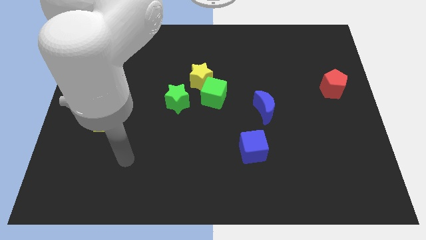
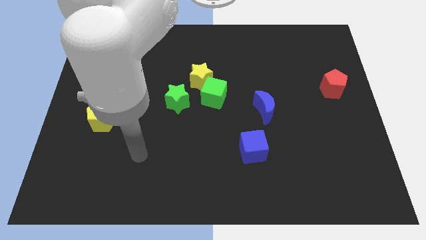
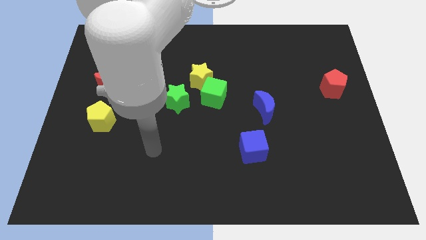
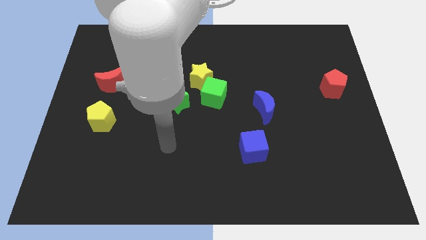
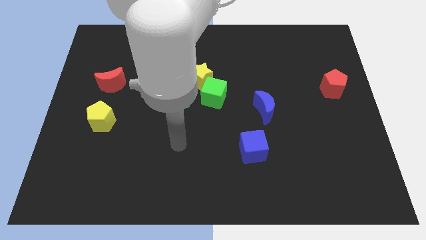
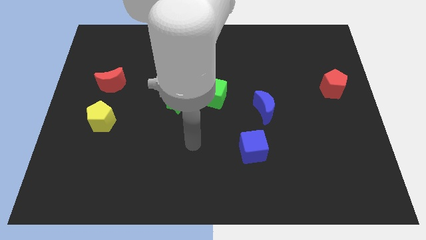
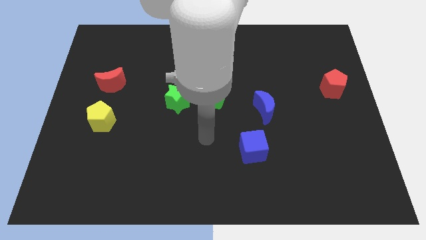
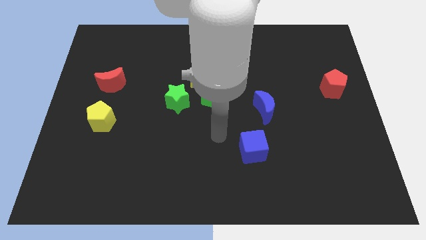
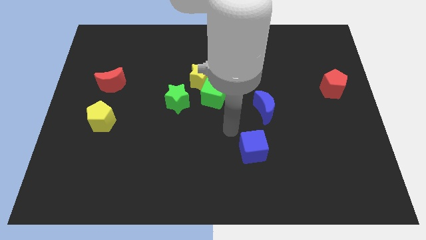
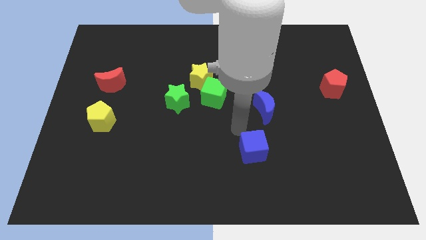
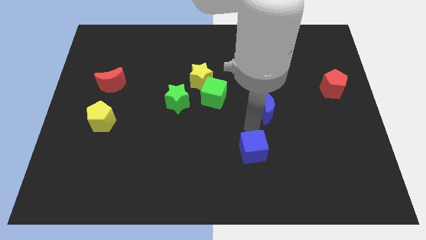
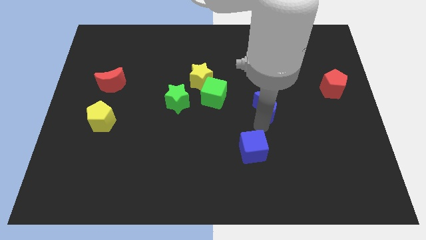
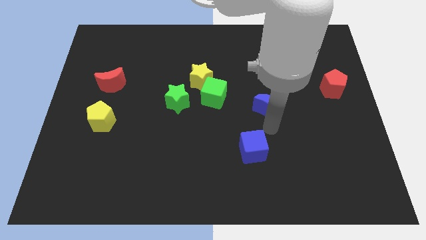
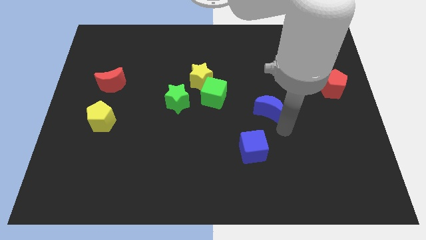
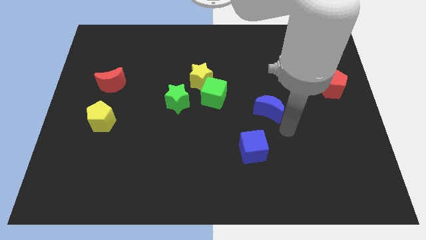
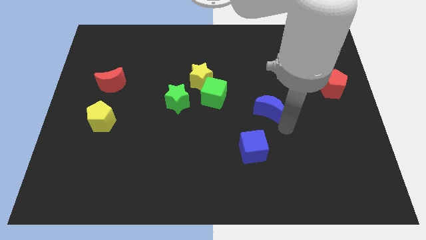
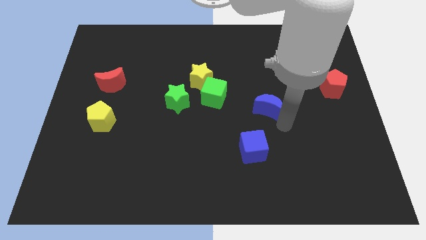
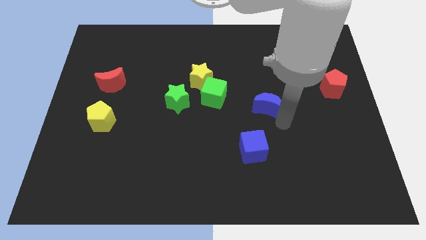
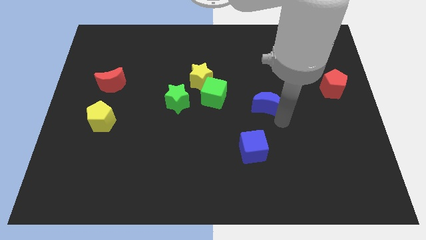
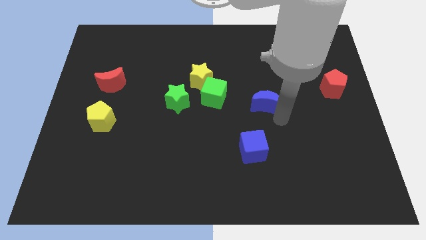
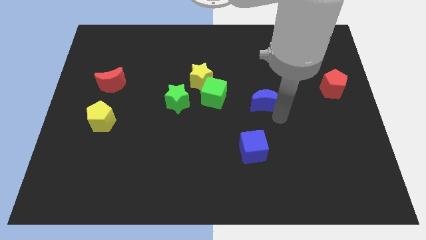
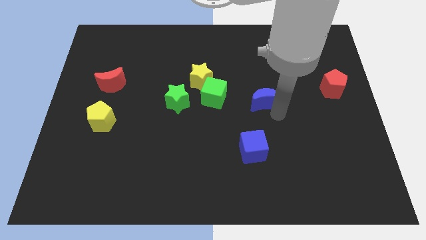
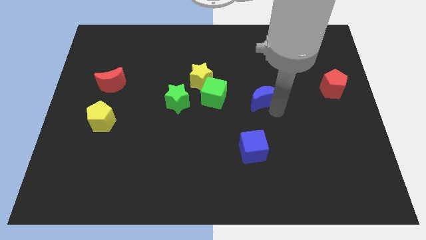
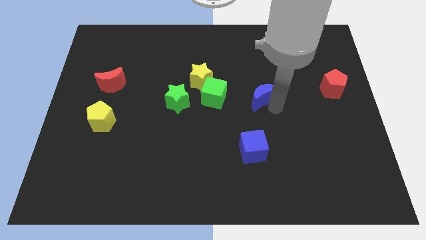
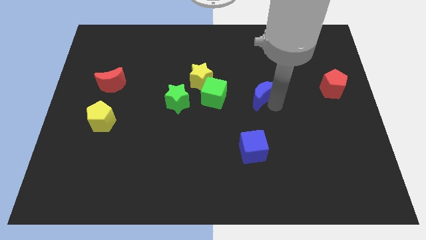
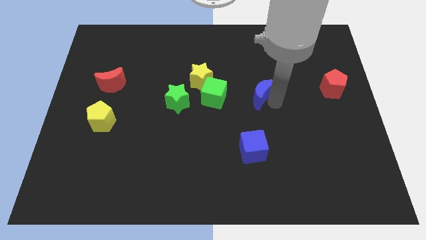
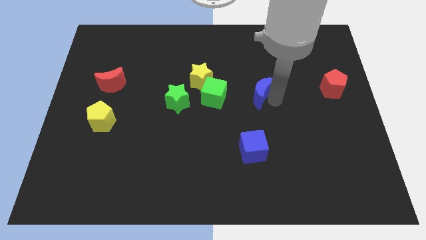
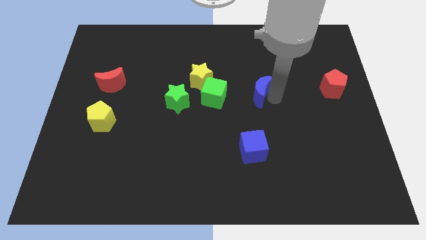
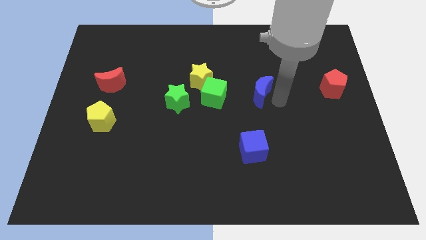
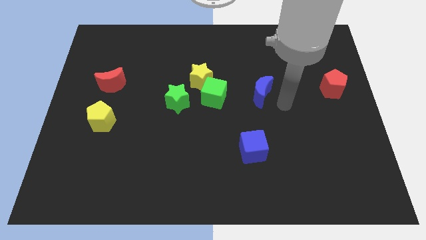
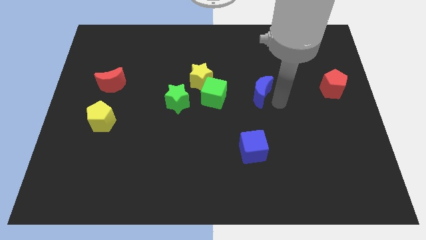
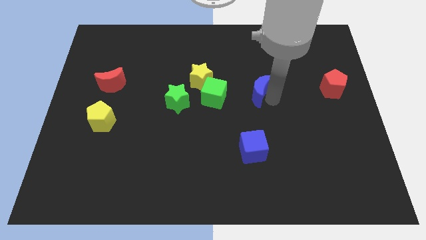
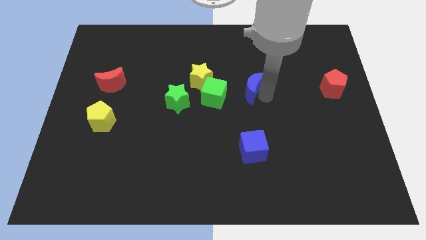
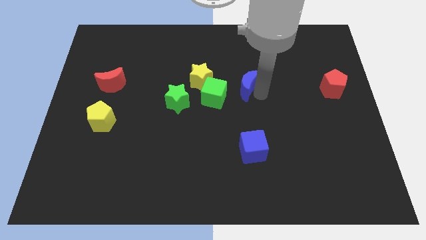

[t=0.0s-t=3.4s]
slightly move the blue moon up and then to the left

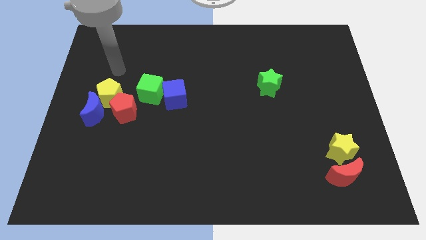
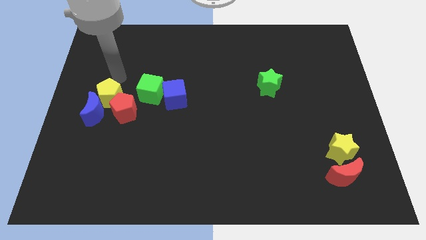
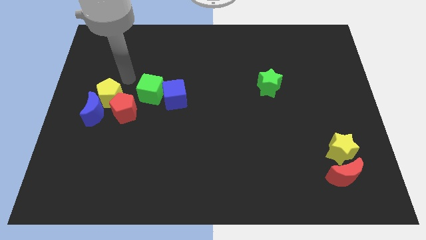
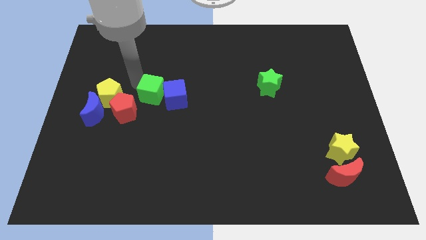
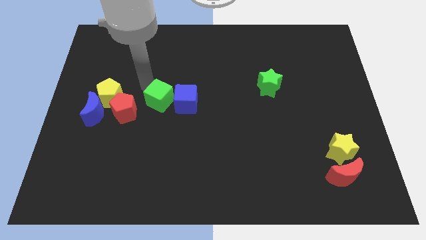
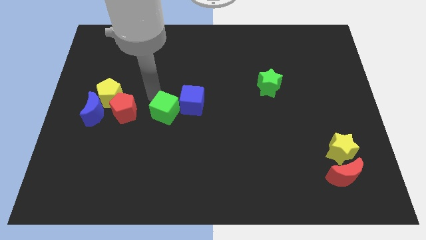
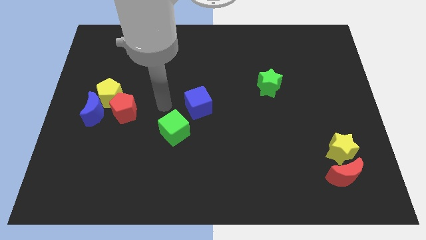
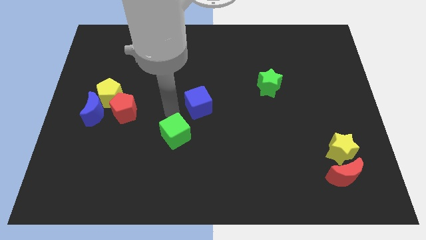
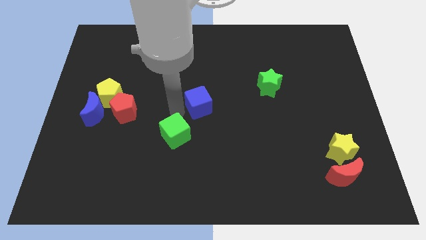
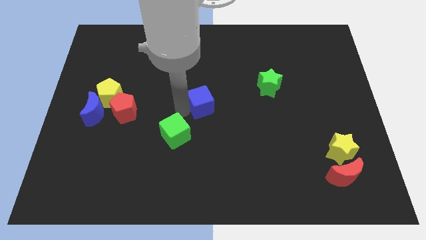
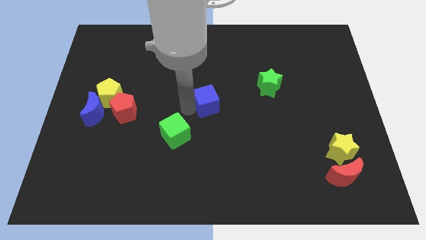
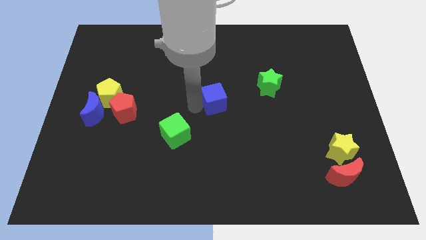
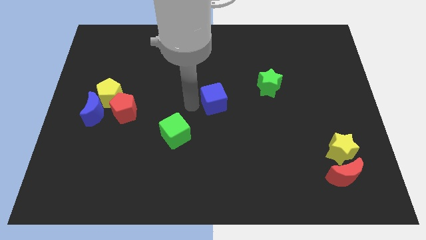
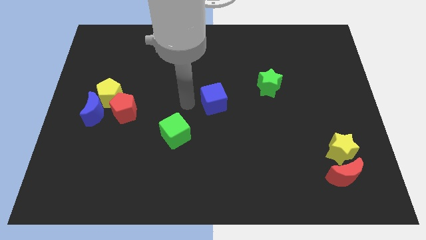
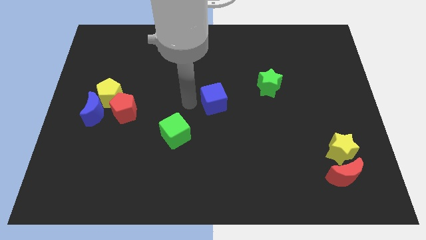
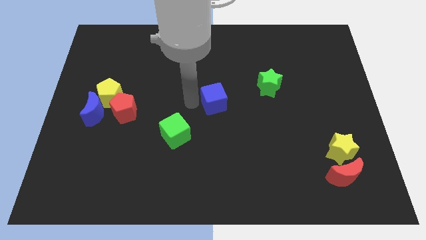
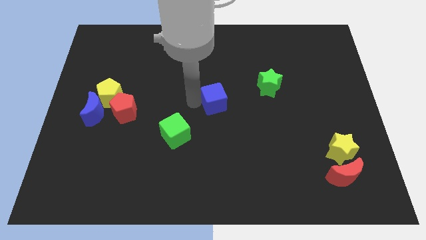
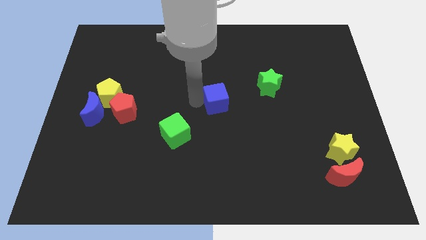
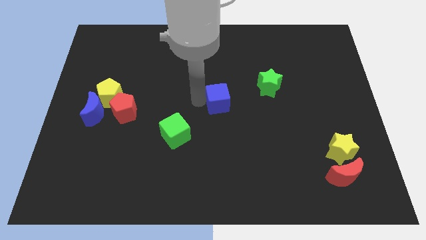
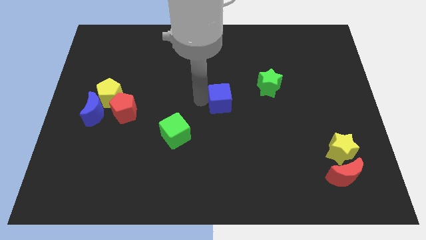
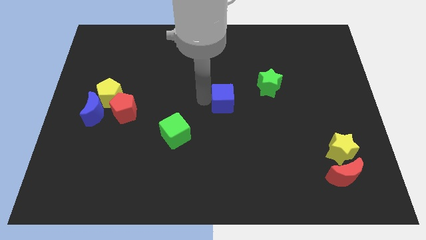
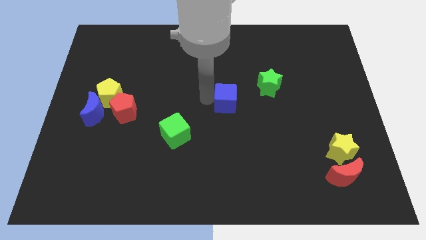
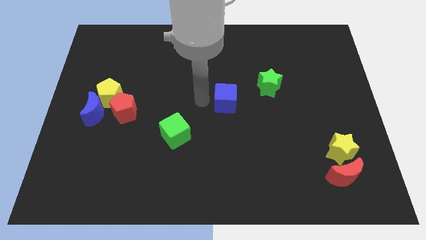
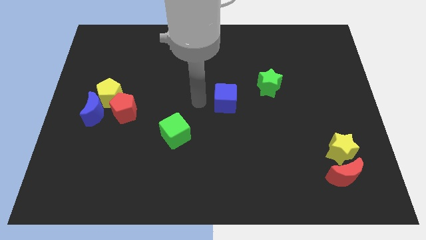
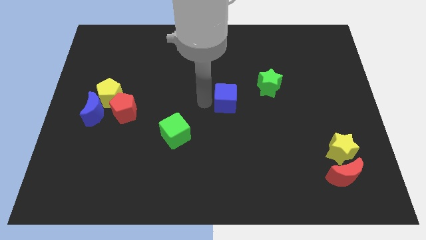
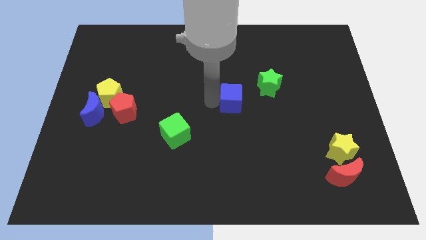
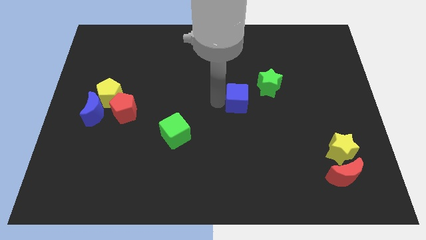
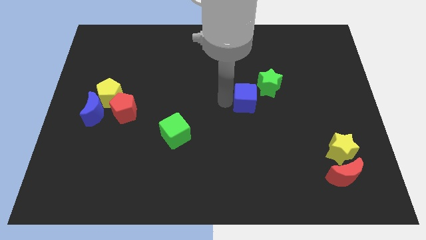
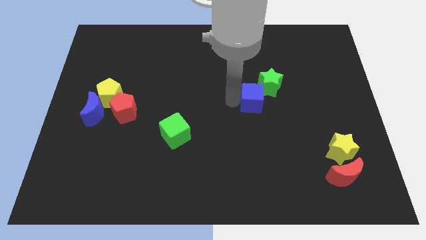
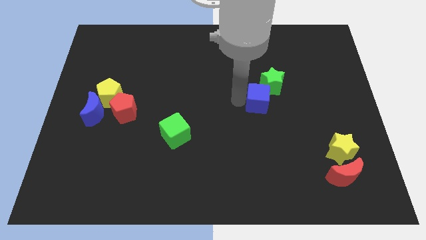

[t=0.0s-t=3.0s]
slide the blue cube to the right

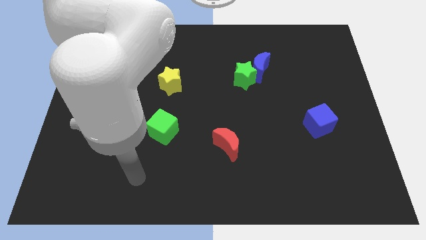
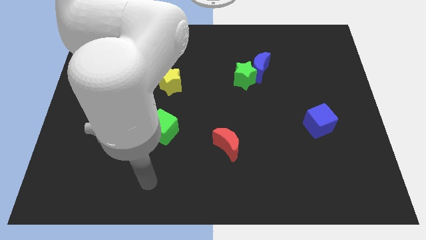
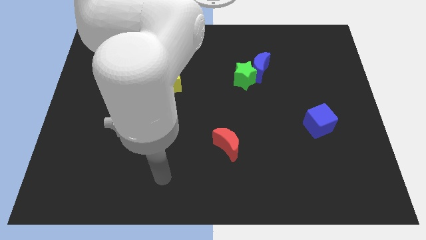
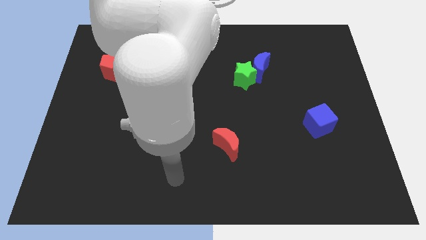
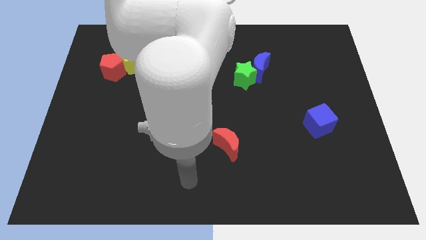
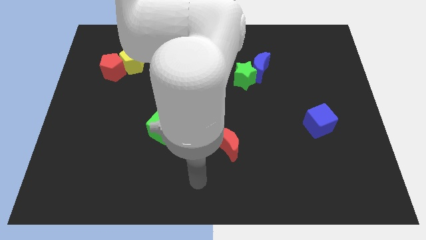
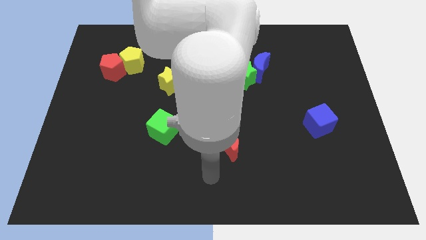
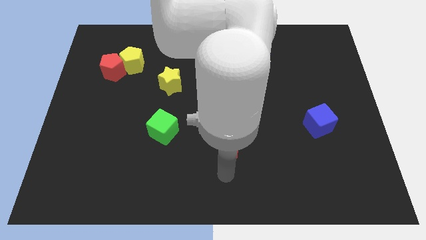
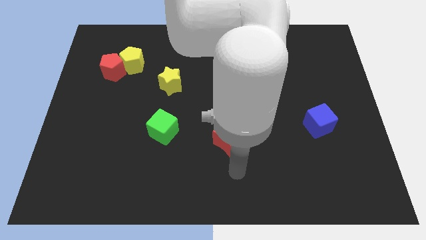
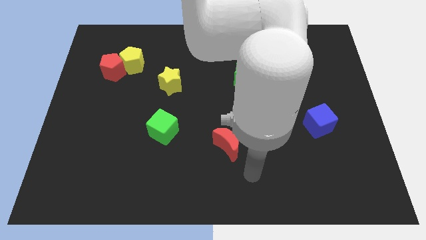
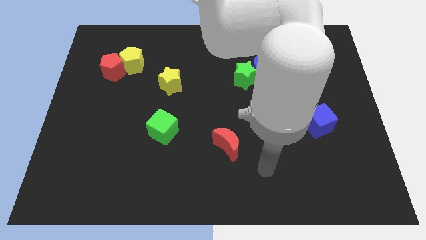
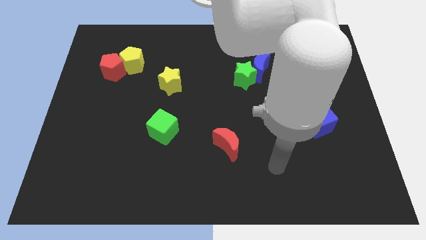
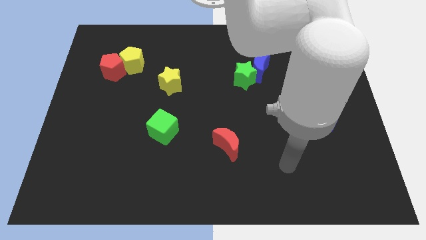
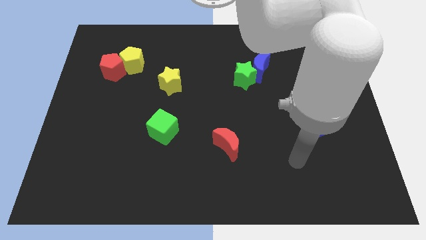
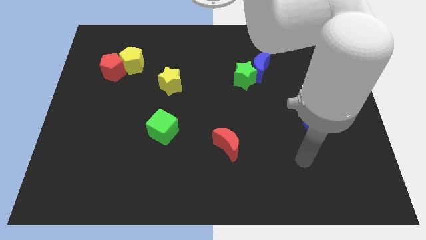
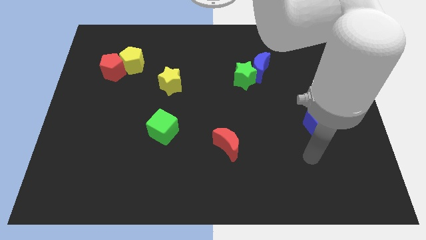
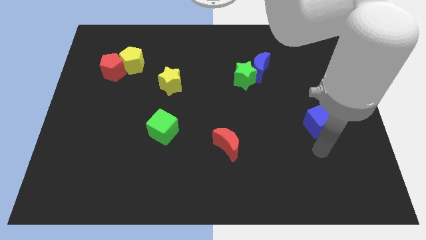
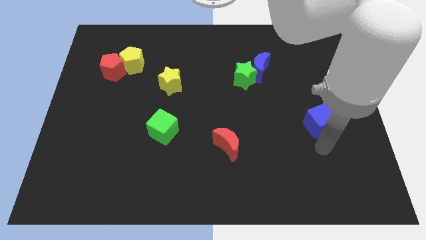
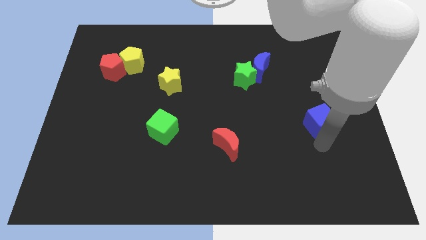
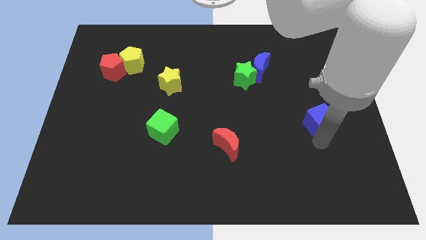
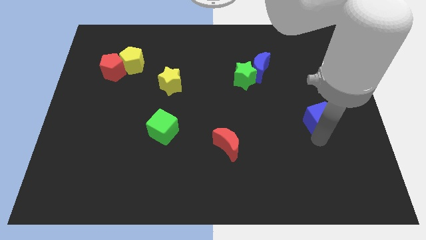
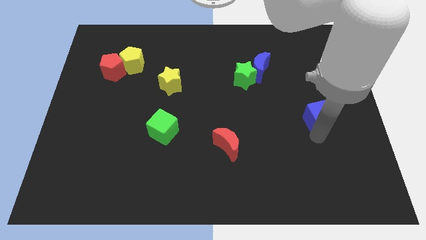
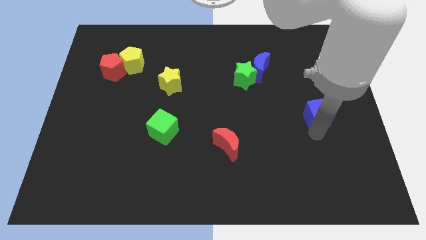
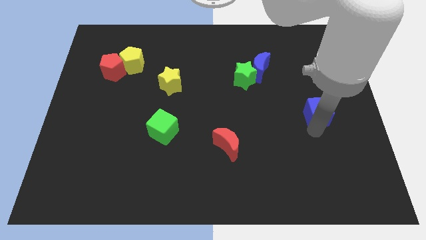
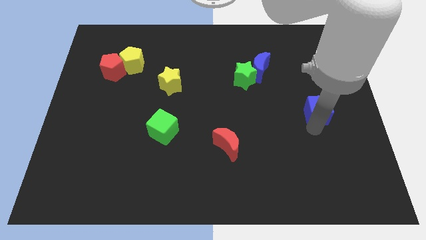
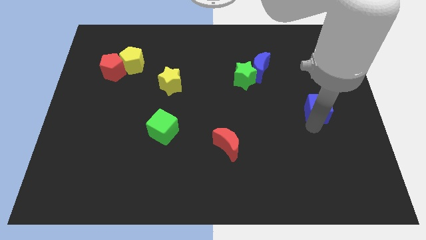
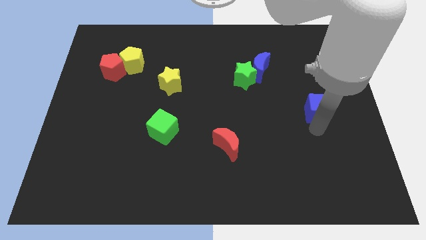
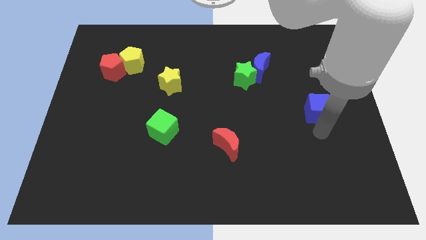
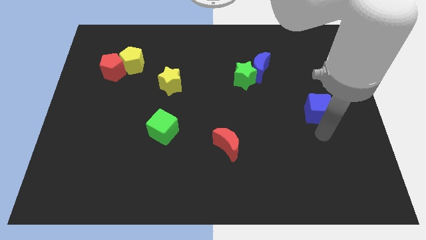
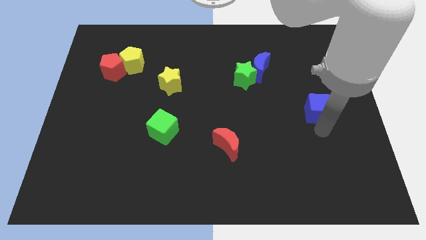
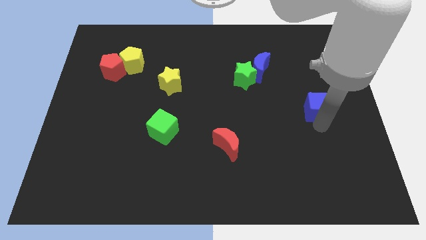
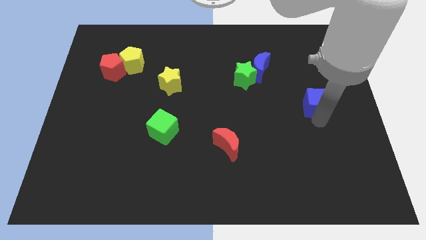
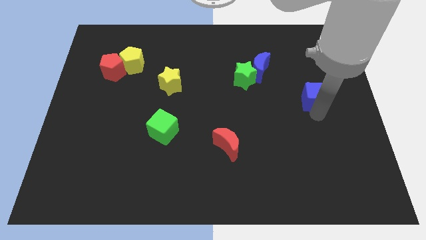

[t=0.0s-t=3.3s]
slide the blue cube up slightly
